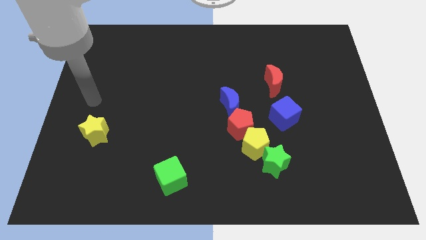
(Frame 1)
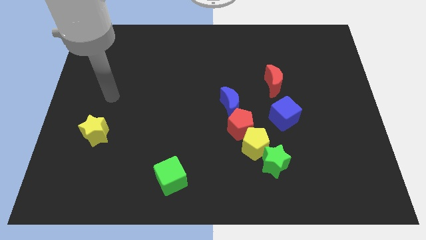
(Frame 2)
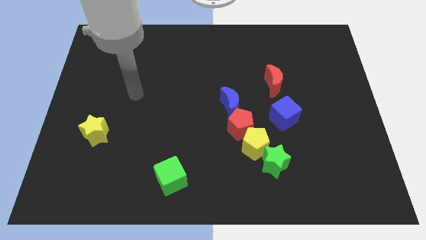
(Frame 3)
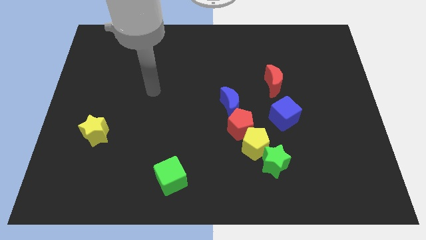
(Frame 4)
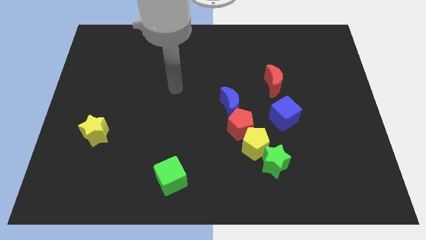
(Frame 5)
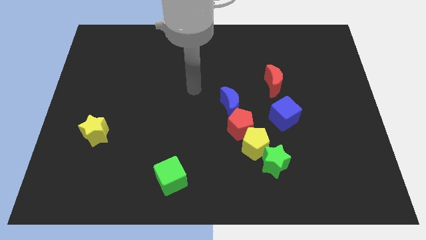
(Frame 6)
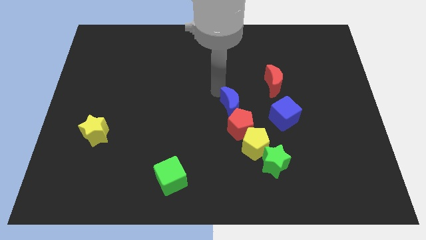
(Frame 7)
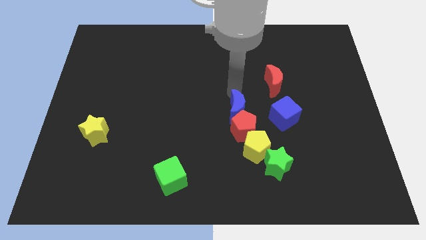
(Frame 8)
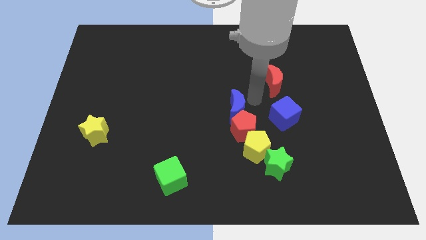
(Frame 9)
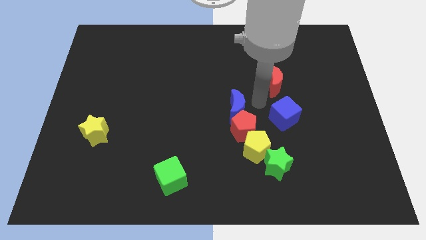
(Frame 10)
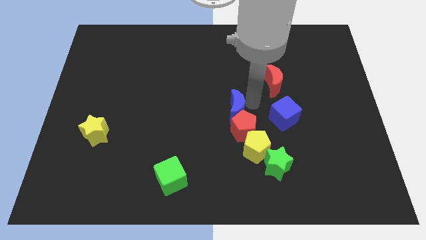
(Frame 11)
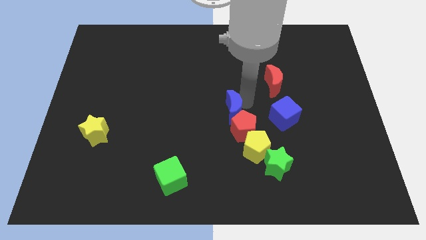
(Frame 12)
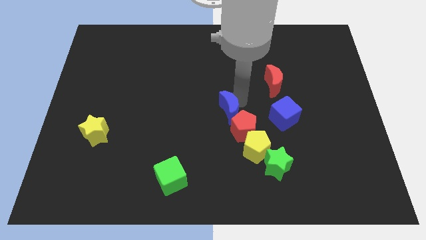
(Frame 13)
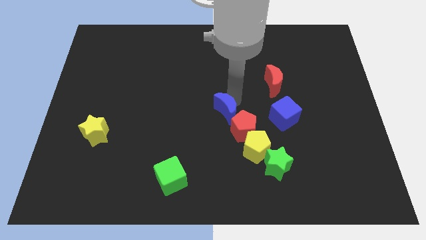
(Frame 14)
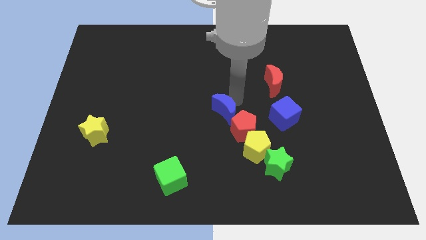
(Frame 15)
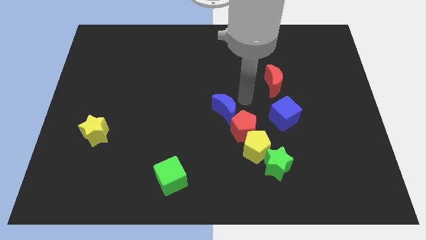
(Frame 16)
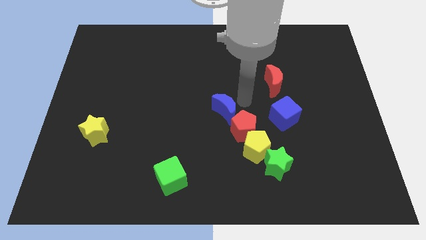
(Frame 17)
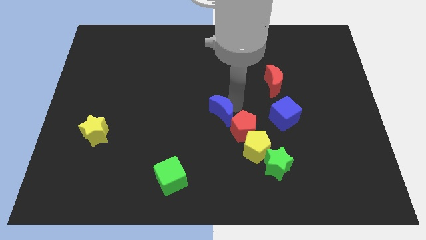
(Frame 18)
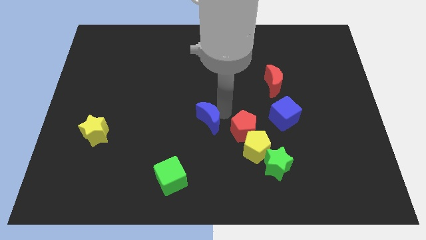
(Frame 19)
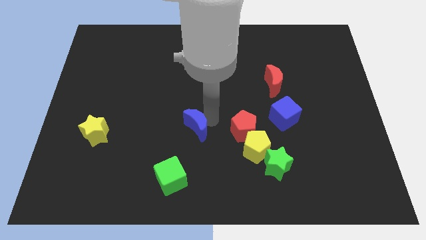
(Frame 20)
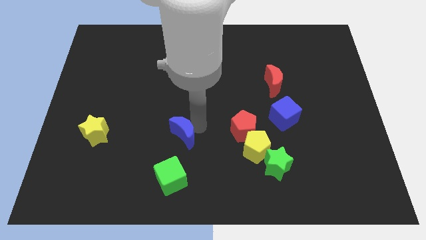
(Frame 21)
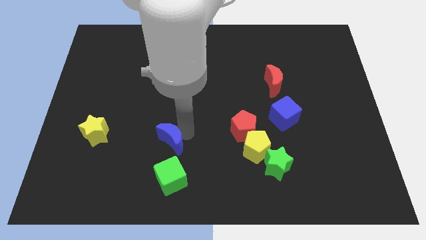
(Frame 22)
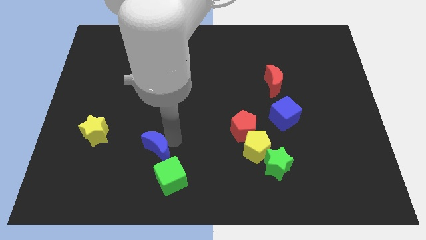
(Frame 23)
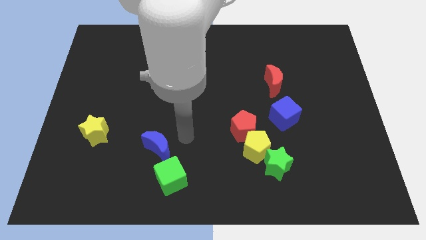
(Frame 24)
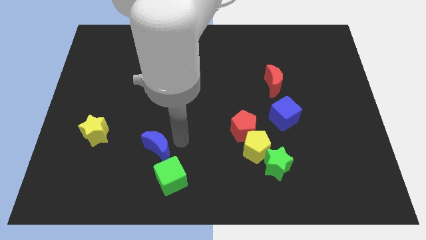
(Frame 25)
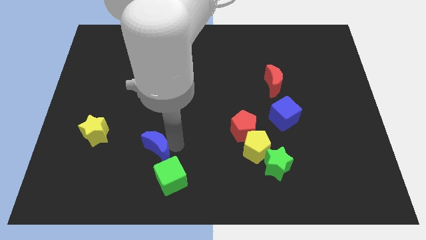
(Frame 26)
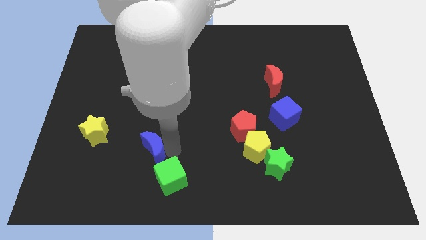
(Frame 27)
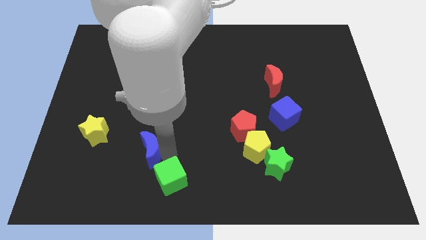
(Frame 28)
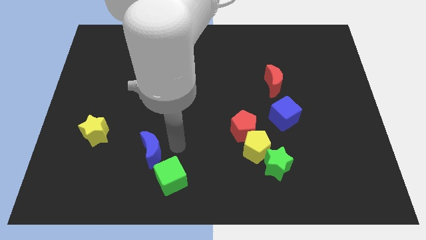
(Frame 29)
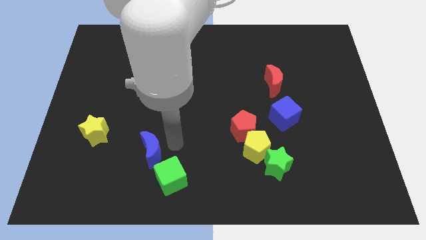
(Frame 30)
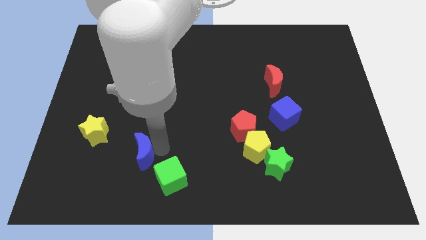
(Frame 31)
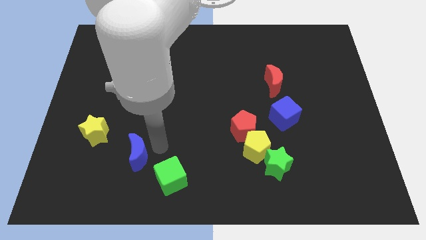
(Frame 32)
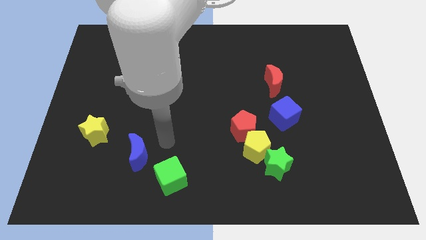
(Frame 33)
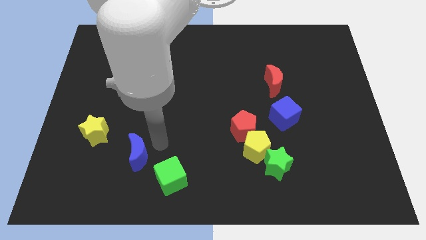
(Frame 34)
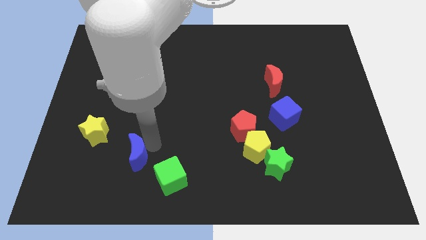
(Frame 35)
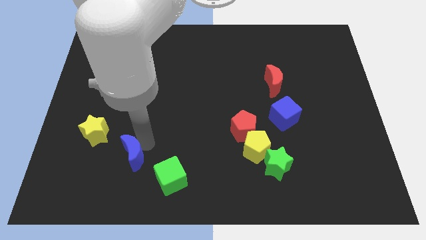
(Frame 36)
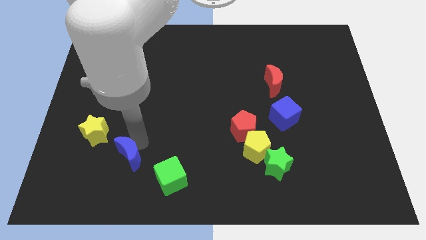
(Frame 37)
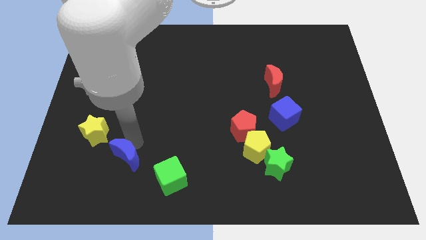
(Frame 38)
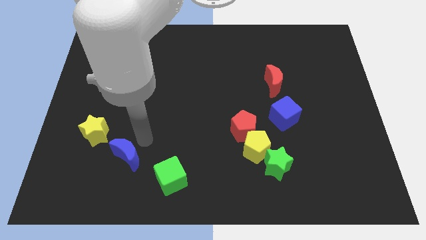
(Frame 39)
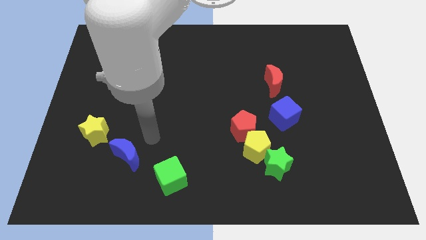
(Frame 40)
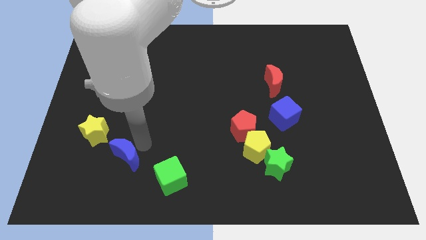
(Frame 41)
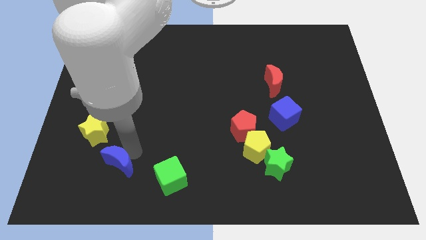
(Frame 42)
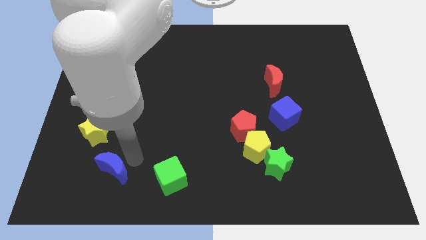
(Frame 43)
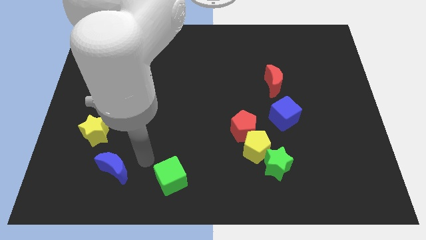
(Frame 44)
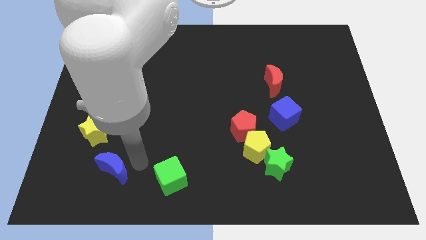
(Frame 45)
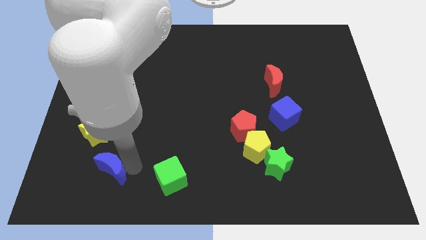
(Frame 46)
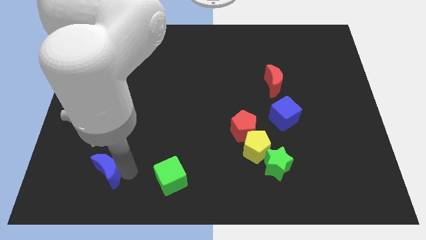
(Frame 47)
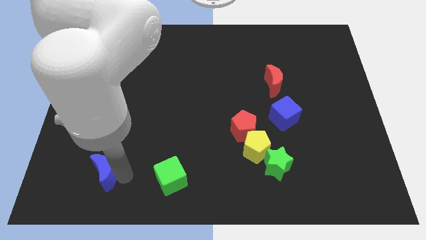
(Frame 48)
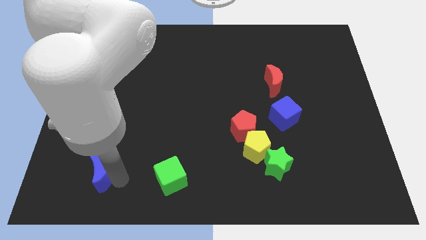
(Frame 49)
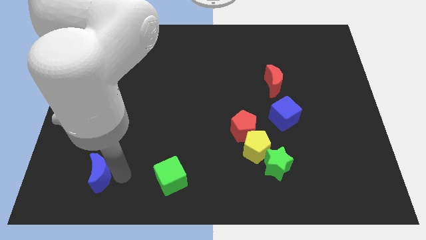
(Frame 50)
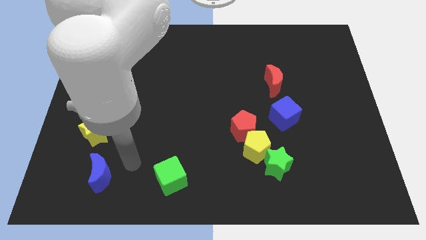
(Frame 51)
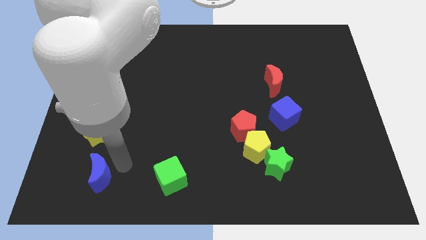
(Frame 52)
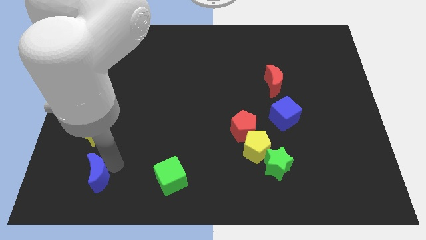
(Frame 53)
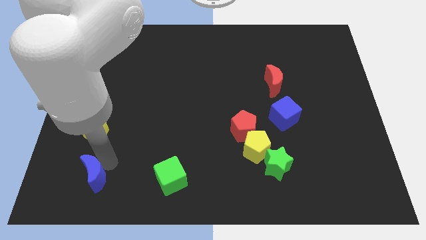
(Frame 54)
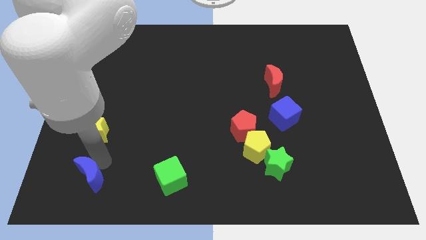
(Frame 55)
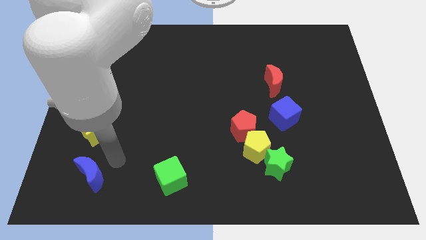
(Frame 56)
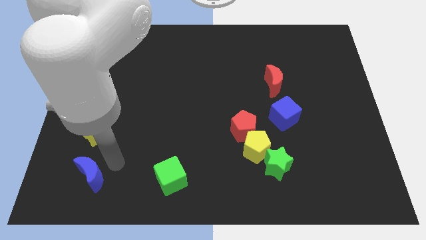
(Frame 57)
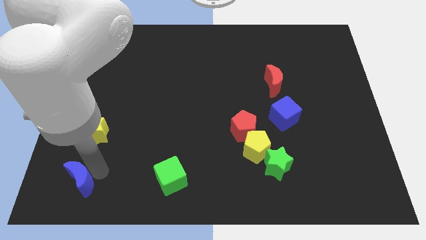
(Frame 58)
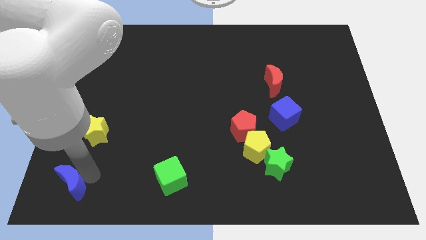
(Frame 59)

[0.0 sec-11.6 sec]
slide the blue moon to the lower left corner

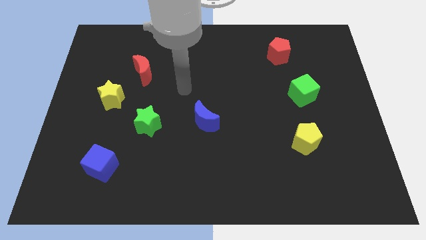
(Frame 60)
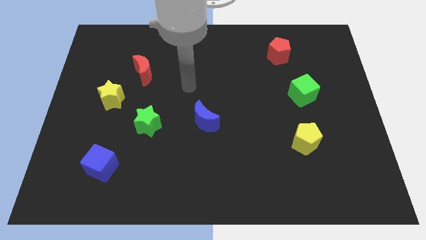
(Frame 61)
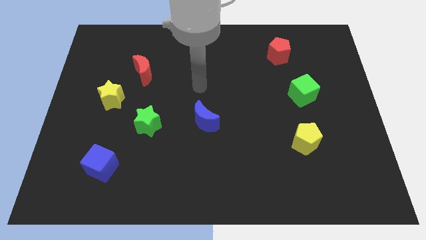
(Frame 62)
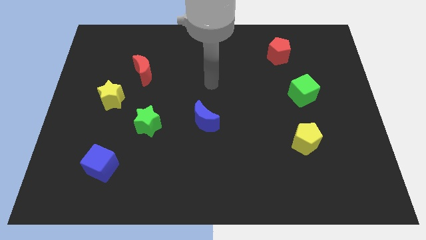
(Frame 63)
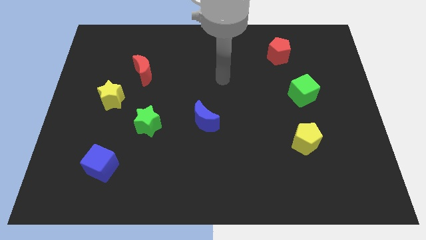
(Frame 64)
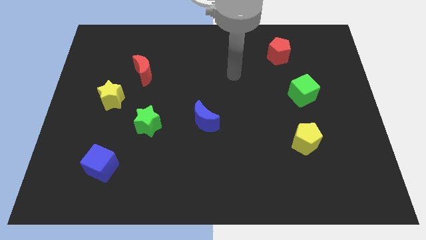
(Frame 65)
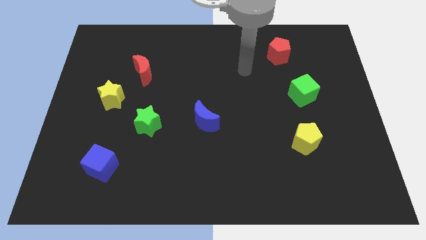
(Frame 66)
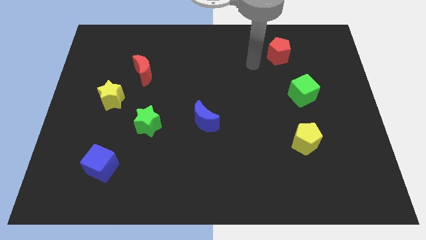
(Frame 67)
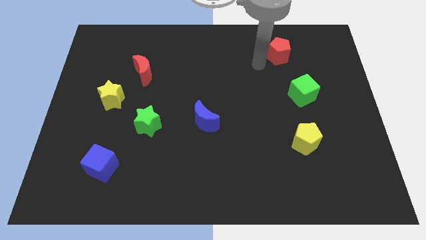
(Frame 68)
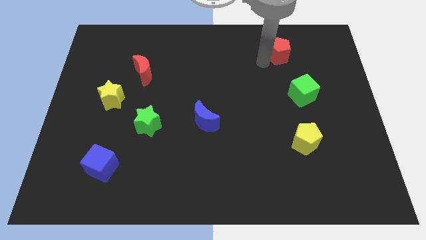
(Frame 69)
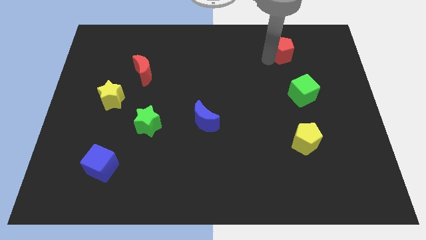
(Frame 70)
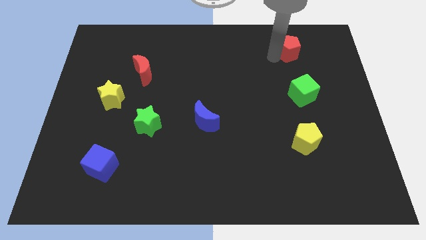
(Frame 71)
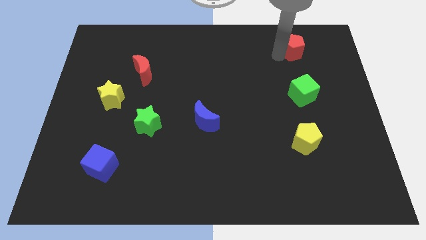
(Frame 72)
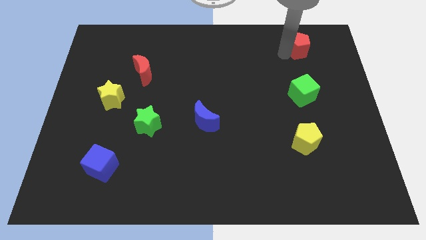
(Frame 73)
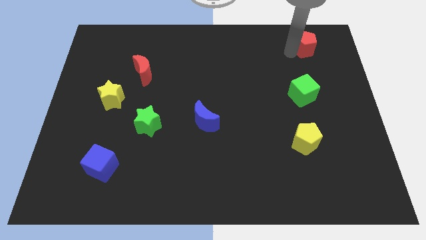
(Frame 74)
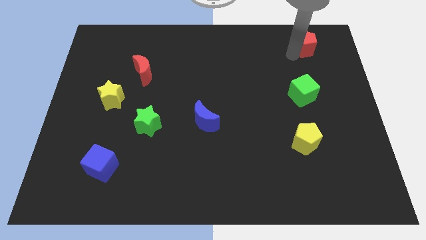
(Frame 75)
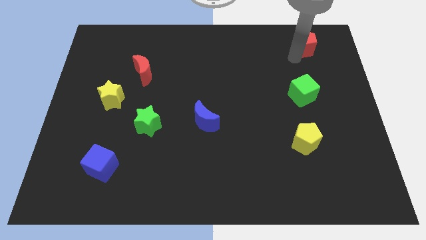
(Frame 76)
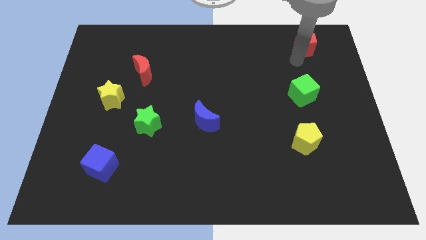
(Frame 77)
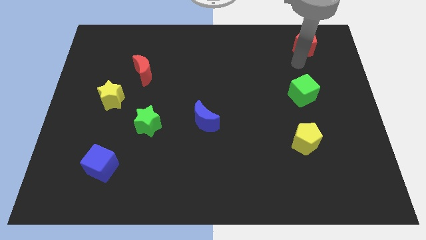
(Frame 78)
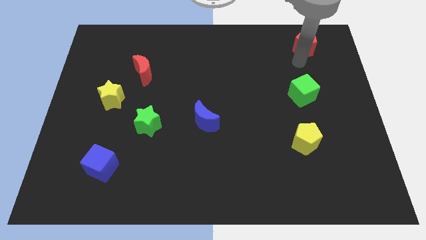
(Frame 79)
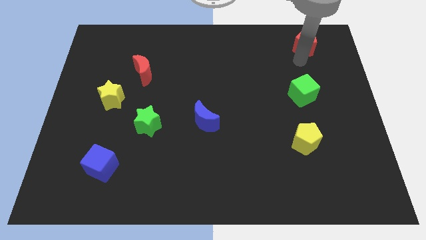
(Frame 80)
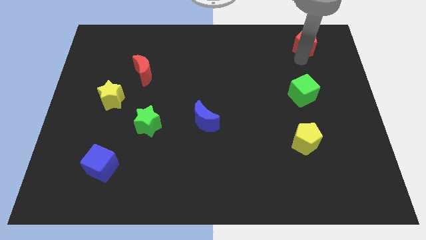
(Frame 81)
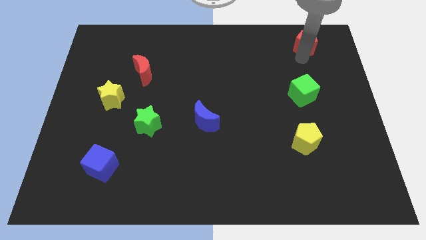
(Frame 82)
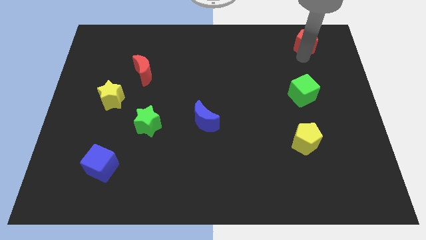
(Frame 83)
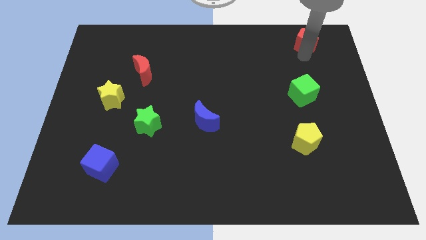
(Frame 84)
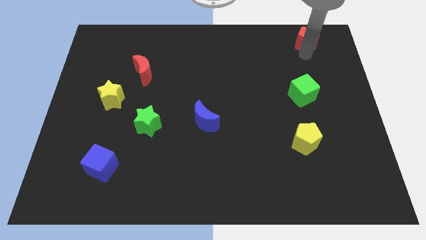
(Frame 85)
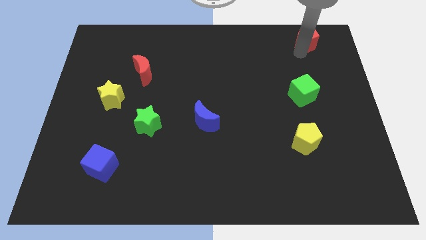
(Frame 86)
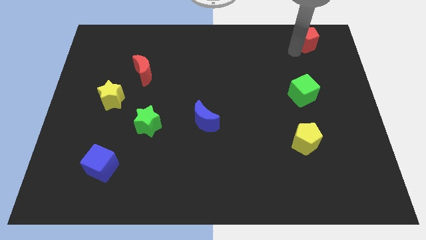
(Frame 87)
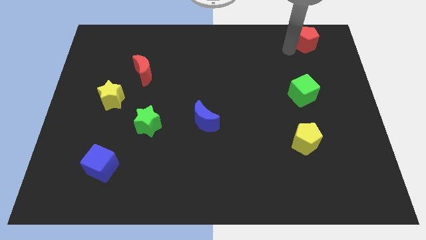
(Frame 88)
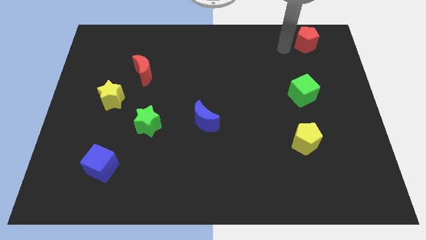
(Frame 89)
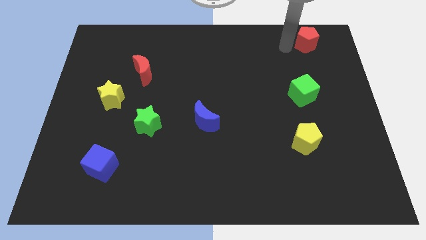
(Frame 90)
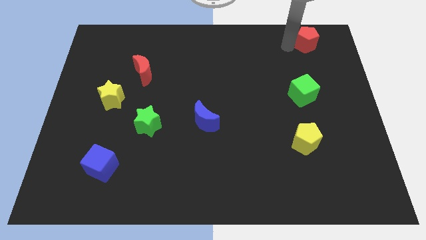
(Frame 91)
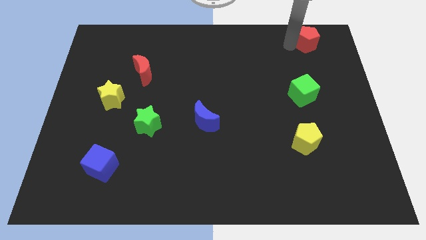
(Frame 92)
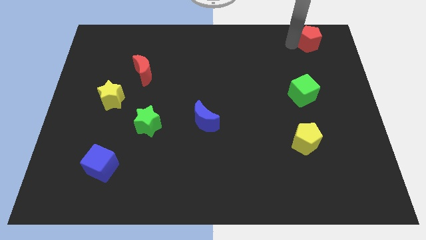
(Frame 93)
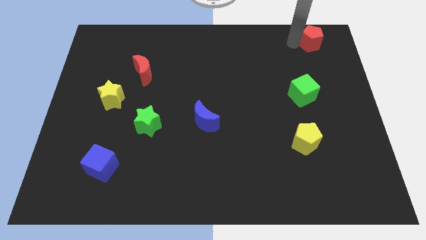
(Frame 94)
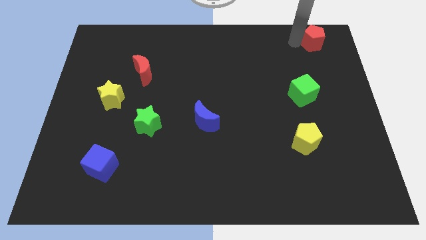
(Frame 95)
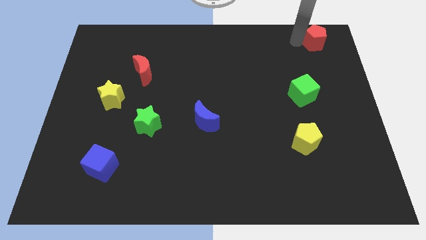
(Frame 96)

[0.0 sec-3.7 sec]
put the red pentagon to the upper right corner
